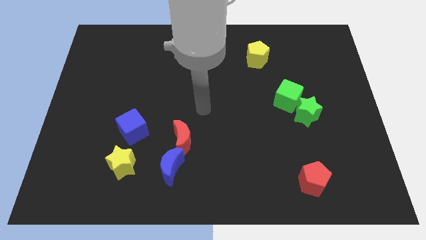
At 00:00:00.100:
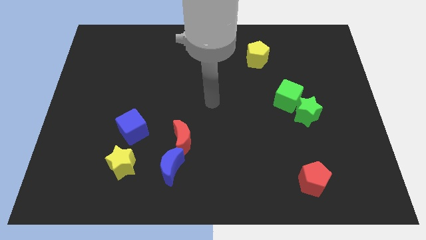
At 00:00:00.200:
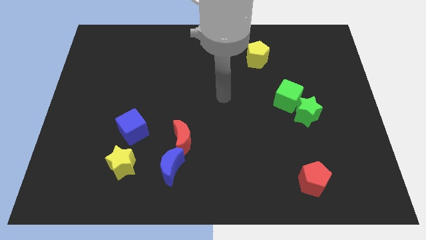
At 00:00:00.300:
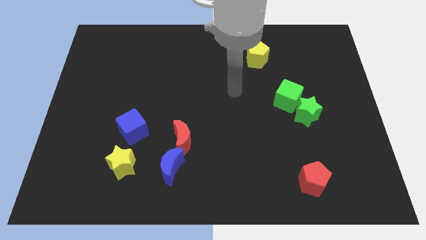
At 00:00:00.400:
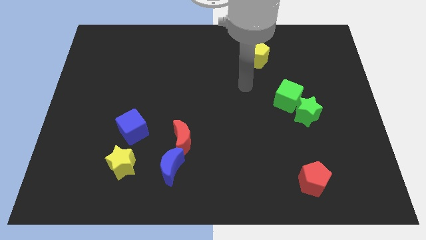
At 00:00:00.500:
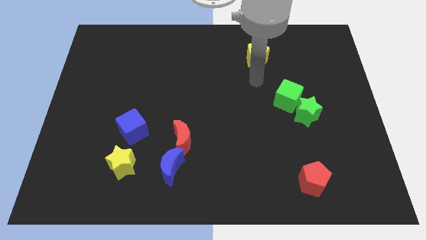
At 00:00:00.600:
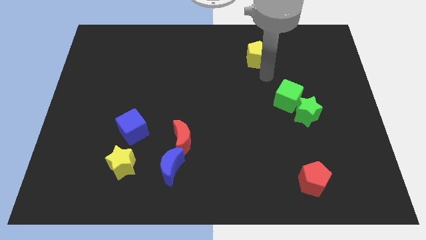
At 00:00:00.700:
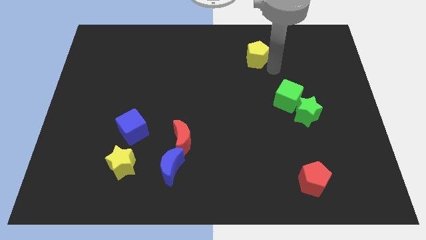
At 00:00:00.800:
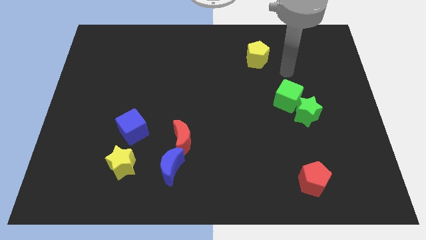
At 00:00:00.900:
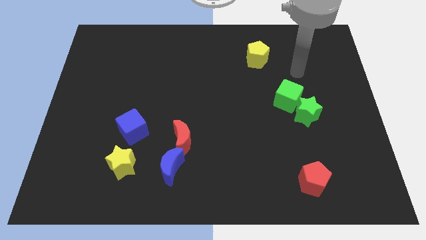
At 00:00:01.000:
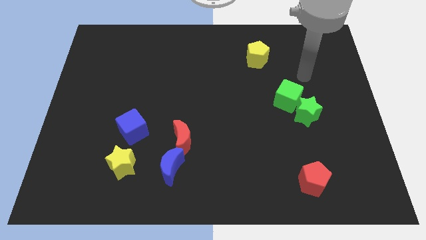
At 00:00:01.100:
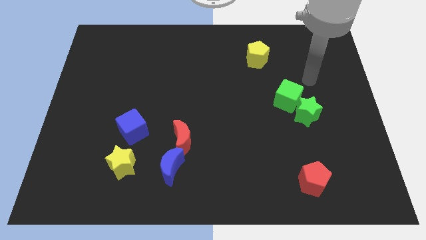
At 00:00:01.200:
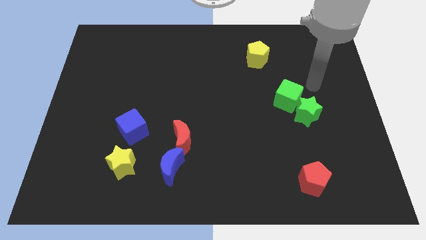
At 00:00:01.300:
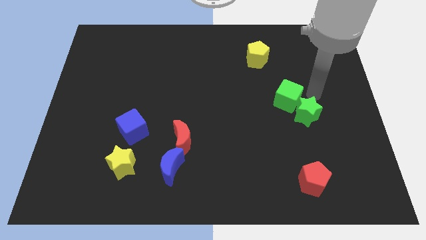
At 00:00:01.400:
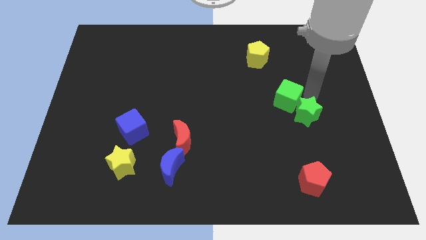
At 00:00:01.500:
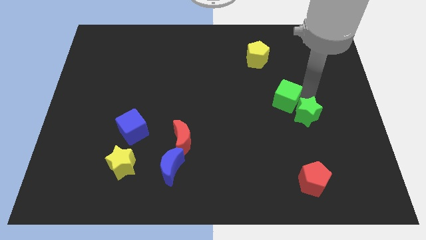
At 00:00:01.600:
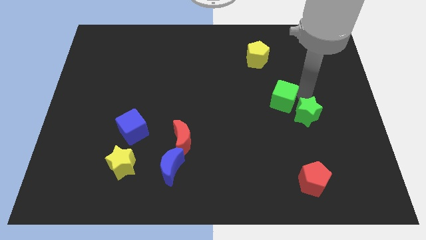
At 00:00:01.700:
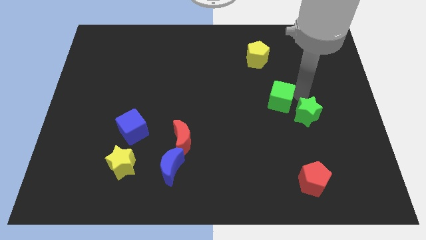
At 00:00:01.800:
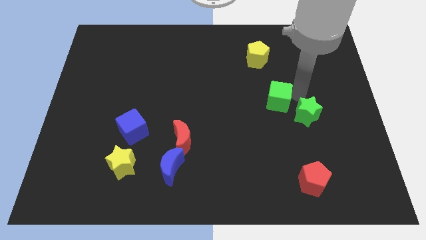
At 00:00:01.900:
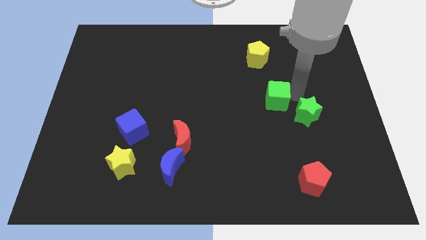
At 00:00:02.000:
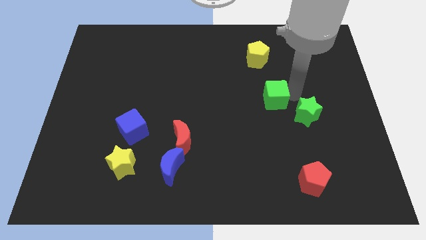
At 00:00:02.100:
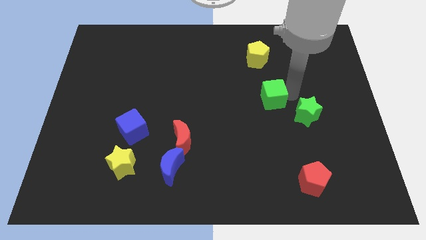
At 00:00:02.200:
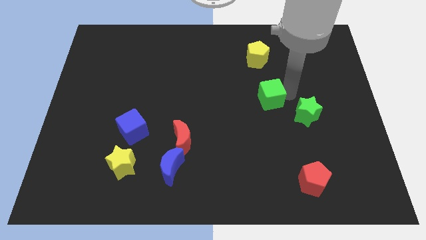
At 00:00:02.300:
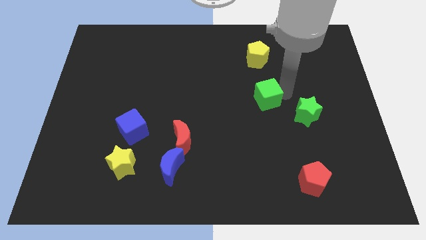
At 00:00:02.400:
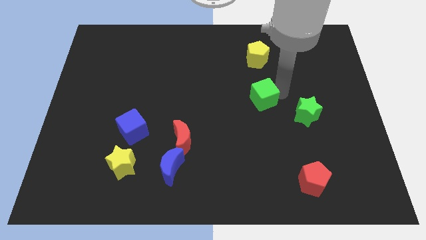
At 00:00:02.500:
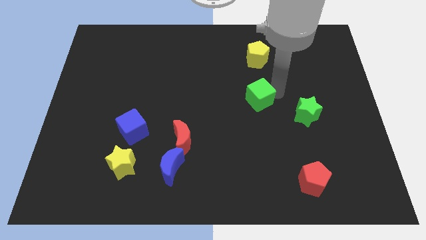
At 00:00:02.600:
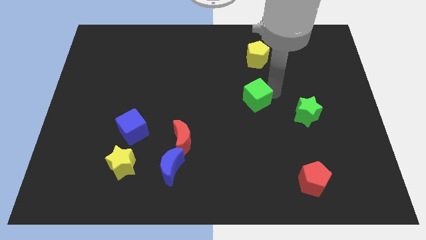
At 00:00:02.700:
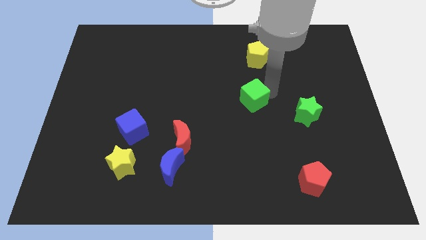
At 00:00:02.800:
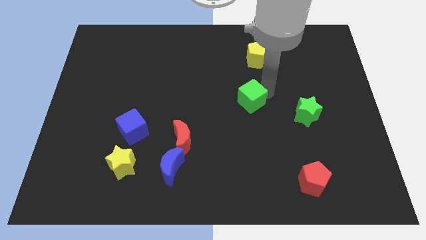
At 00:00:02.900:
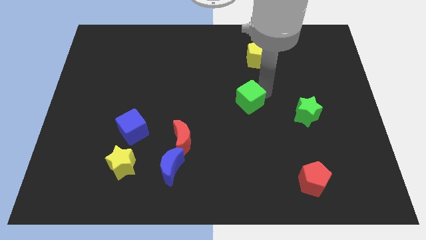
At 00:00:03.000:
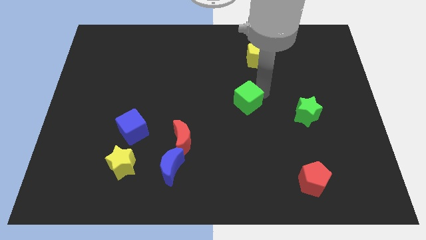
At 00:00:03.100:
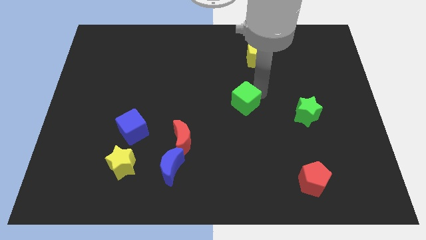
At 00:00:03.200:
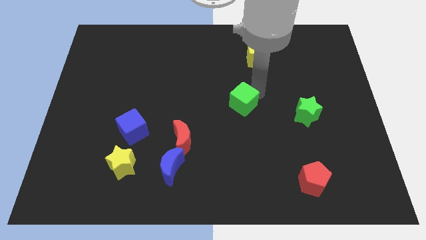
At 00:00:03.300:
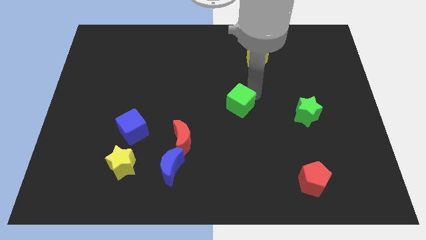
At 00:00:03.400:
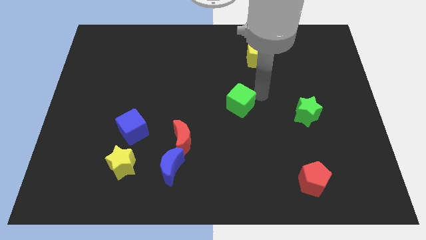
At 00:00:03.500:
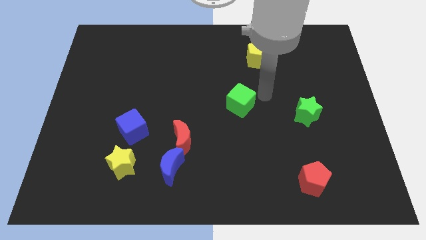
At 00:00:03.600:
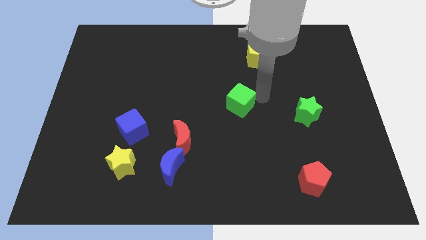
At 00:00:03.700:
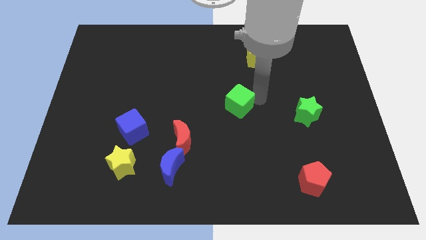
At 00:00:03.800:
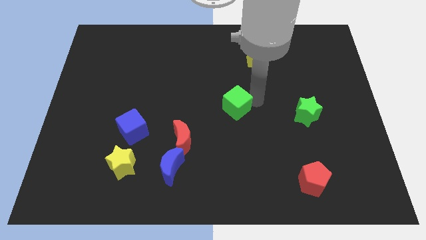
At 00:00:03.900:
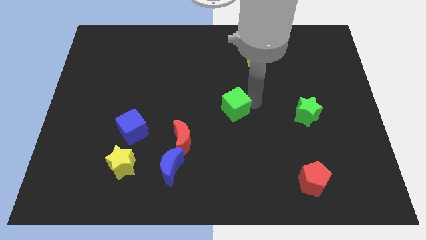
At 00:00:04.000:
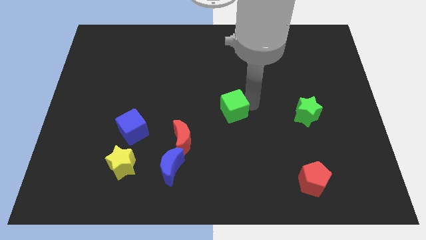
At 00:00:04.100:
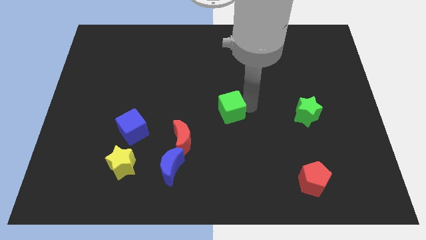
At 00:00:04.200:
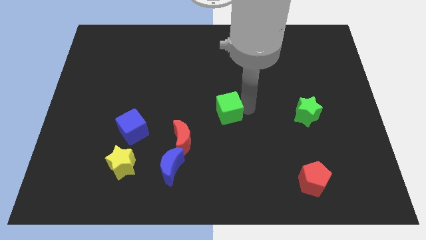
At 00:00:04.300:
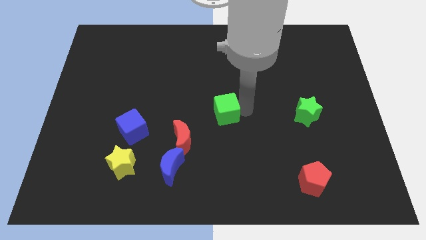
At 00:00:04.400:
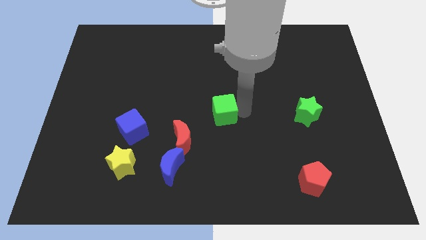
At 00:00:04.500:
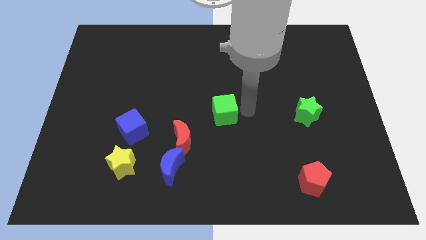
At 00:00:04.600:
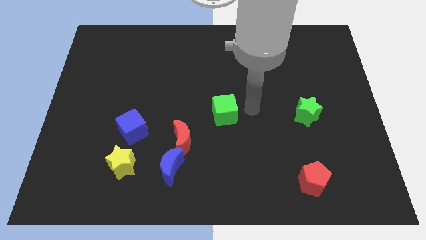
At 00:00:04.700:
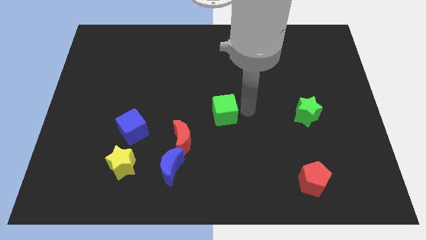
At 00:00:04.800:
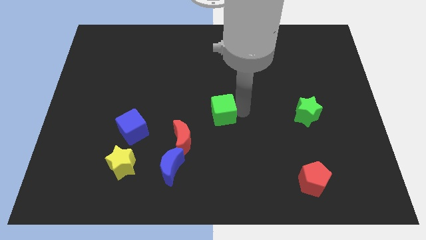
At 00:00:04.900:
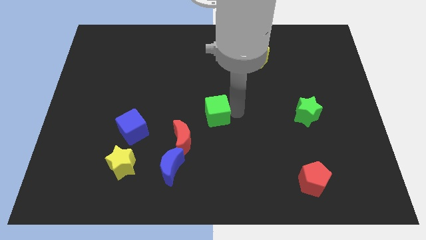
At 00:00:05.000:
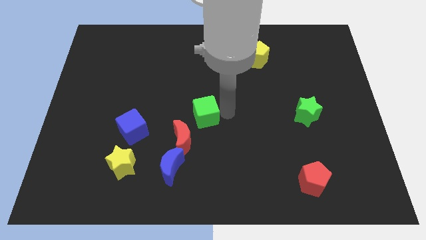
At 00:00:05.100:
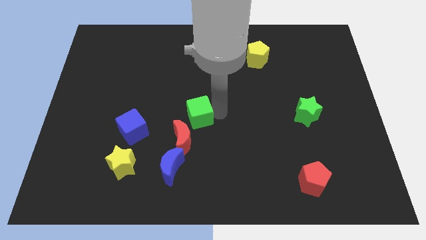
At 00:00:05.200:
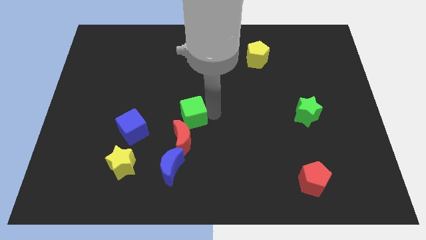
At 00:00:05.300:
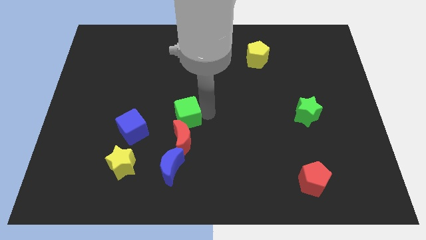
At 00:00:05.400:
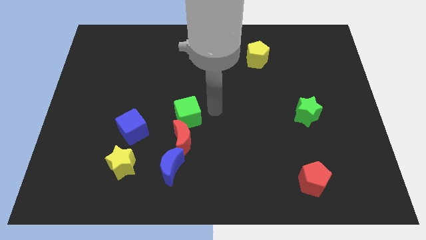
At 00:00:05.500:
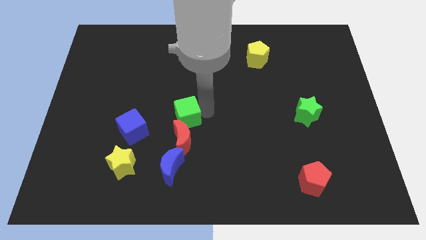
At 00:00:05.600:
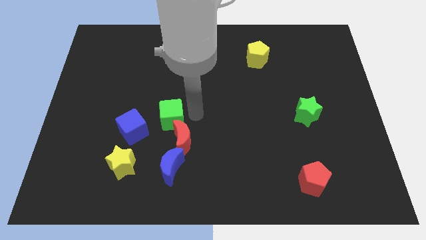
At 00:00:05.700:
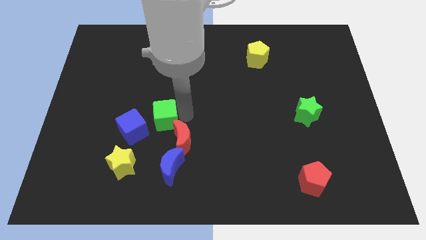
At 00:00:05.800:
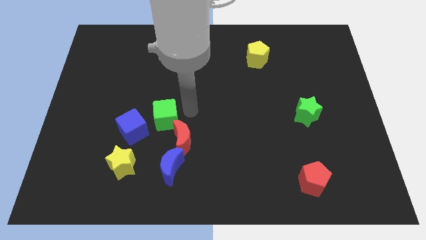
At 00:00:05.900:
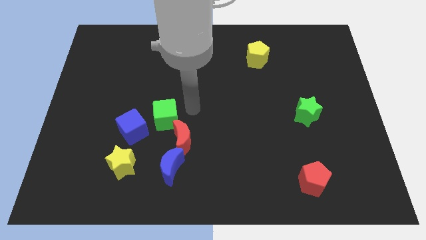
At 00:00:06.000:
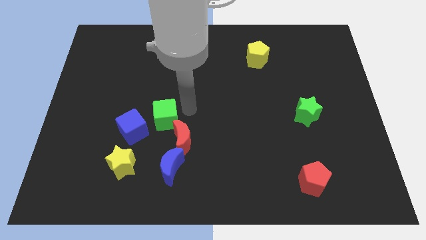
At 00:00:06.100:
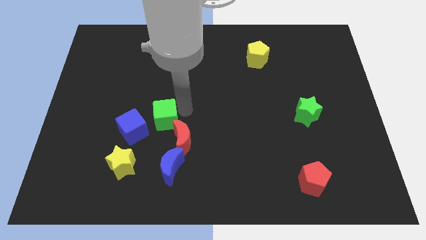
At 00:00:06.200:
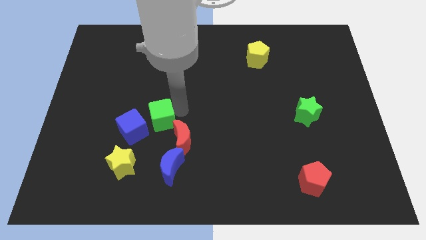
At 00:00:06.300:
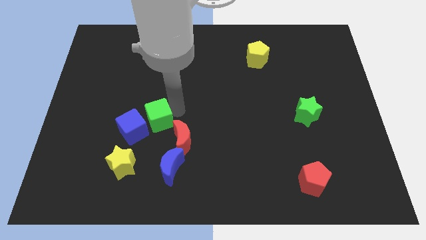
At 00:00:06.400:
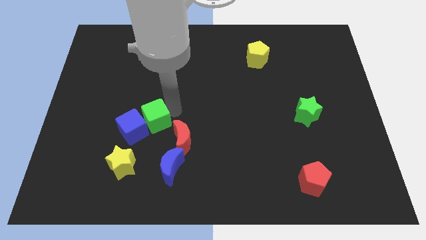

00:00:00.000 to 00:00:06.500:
push the green cube close to the blue cube
